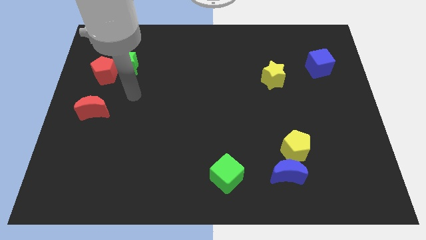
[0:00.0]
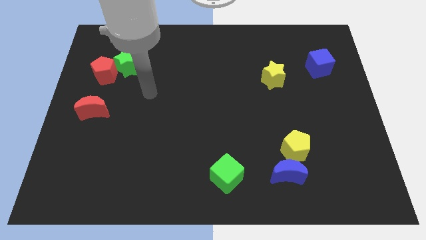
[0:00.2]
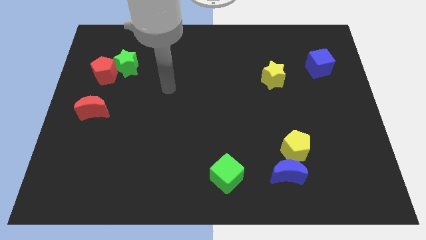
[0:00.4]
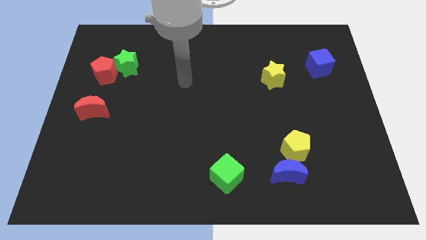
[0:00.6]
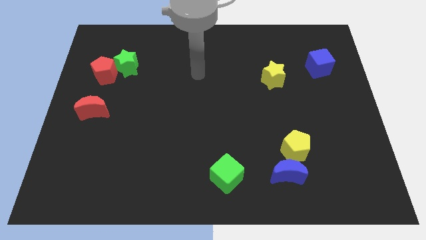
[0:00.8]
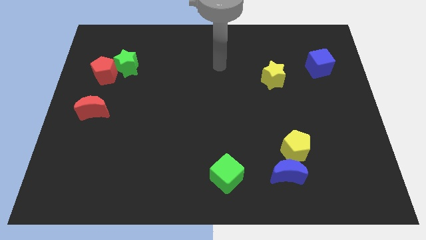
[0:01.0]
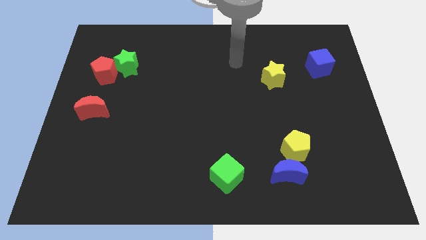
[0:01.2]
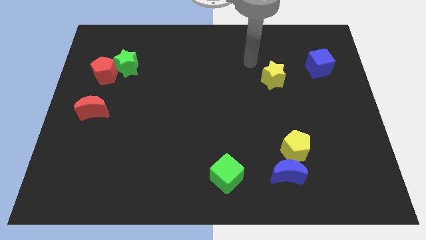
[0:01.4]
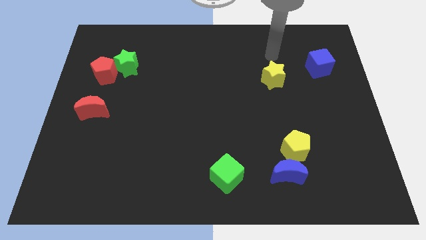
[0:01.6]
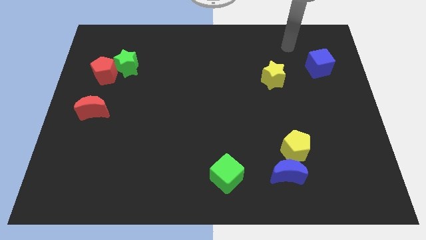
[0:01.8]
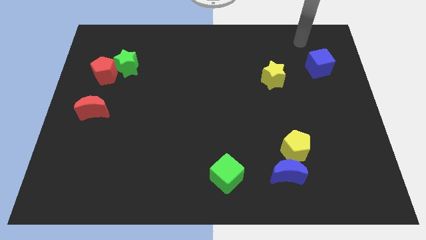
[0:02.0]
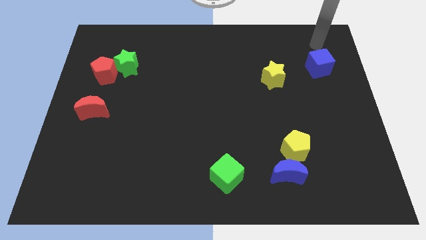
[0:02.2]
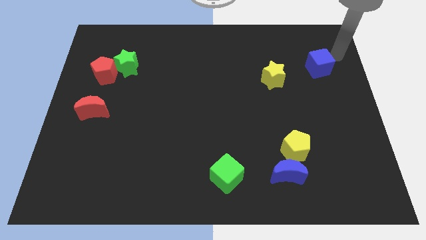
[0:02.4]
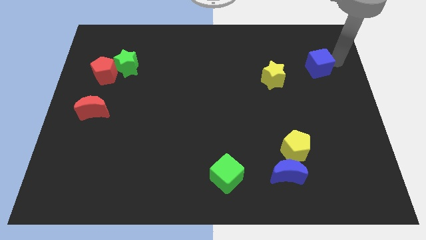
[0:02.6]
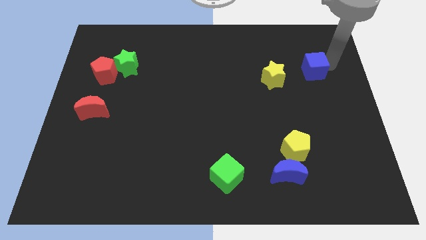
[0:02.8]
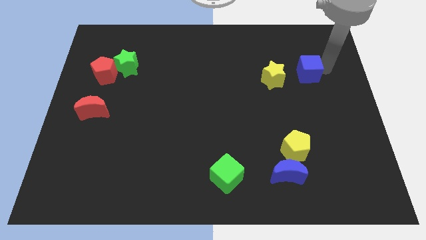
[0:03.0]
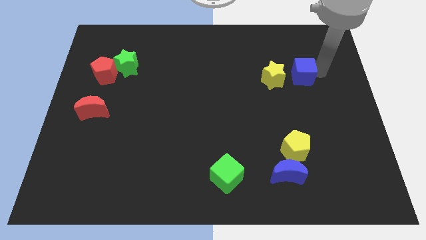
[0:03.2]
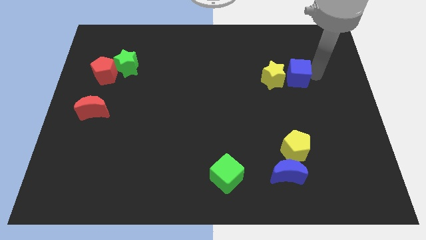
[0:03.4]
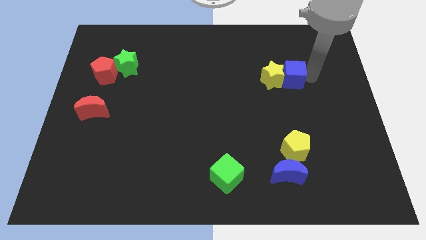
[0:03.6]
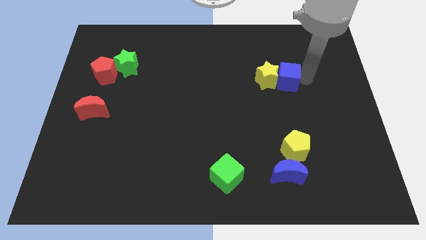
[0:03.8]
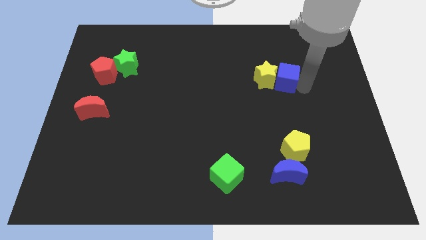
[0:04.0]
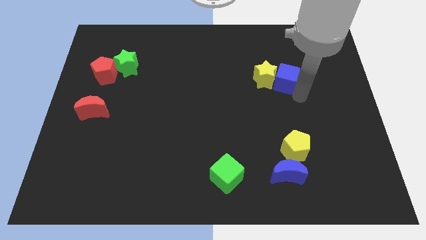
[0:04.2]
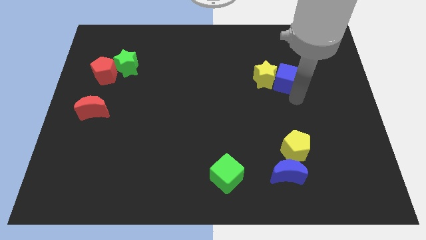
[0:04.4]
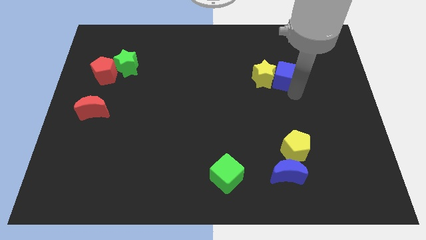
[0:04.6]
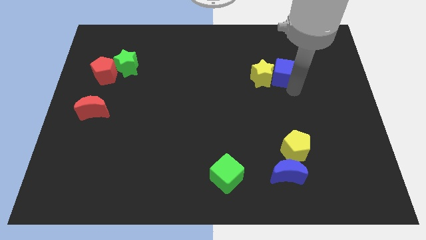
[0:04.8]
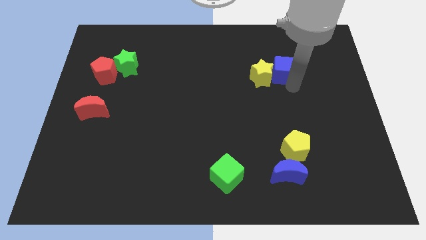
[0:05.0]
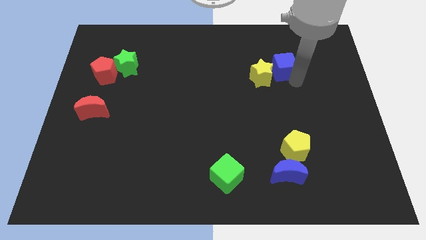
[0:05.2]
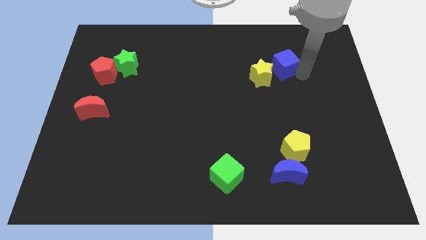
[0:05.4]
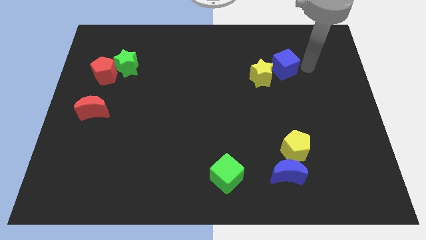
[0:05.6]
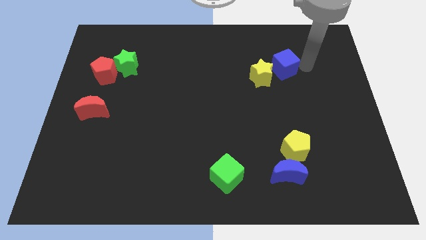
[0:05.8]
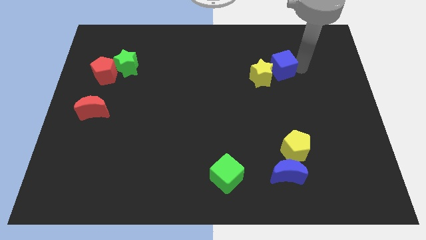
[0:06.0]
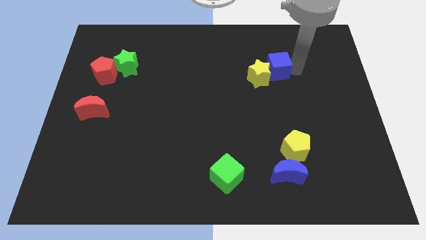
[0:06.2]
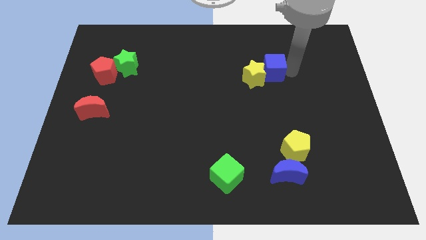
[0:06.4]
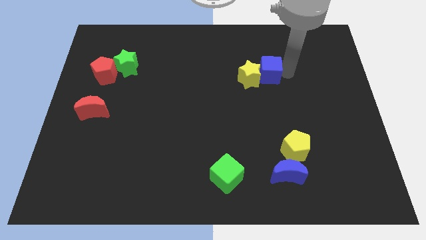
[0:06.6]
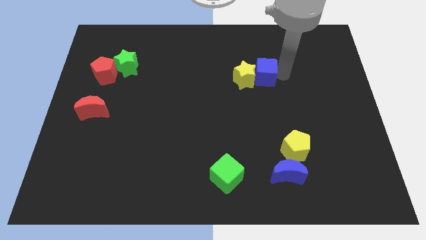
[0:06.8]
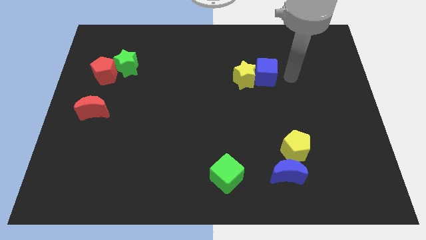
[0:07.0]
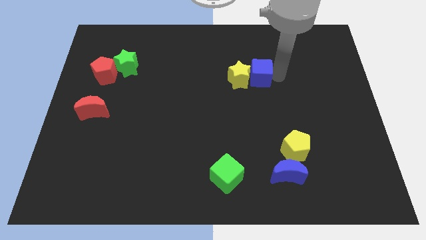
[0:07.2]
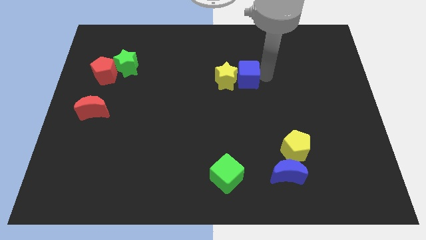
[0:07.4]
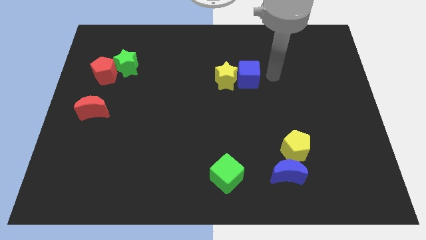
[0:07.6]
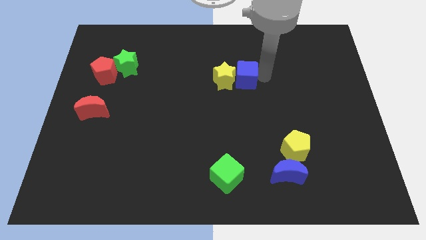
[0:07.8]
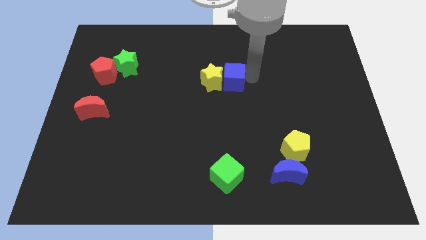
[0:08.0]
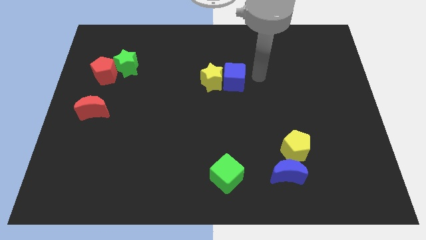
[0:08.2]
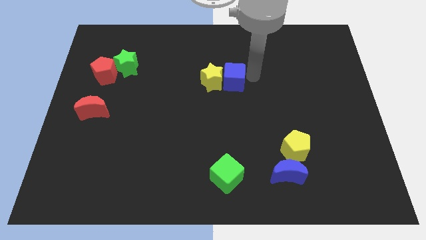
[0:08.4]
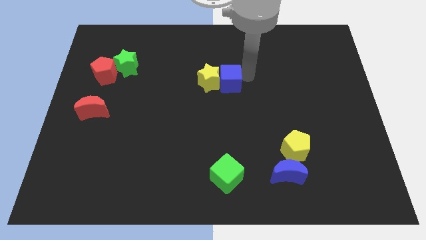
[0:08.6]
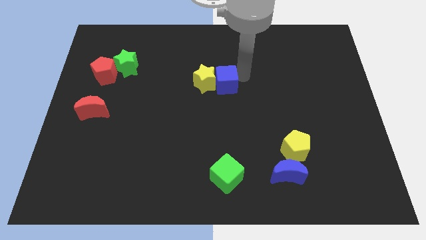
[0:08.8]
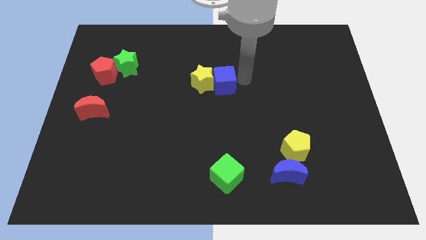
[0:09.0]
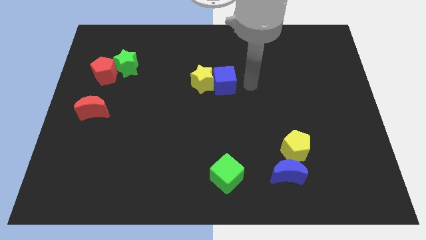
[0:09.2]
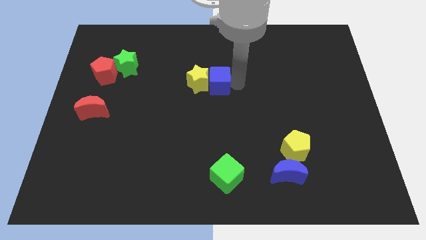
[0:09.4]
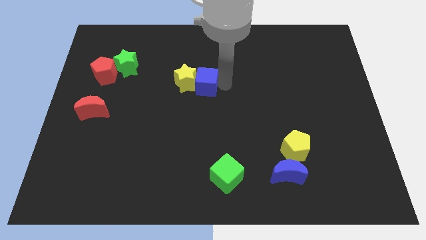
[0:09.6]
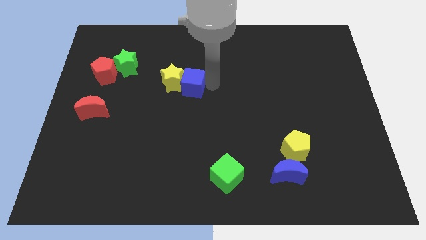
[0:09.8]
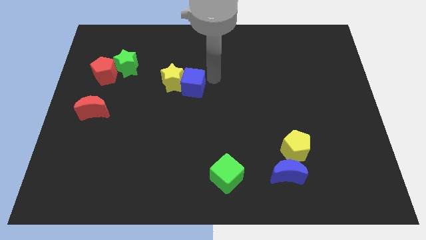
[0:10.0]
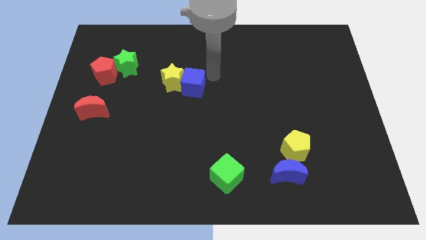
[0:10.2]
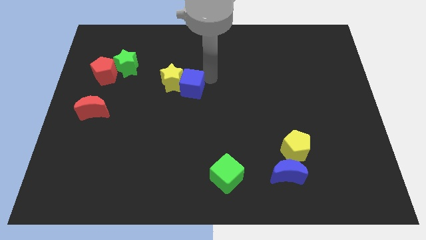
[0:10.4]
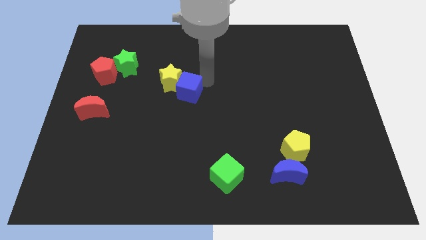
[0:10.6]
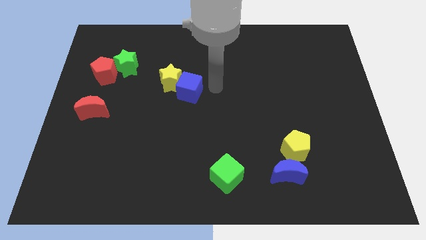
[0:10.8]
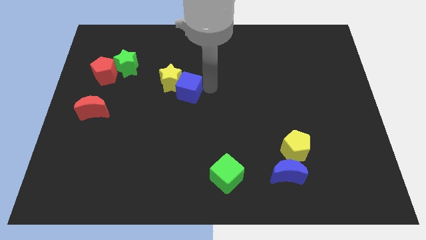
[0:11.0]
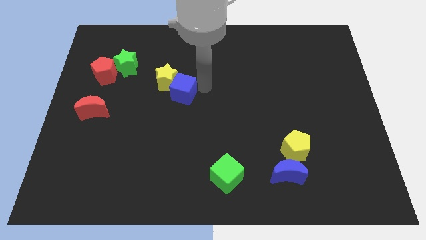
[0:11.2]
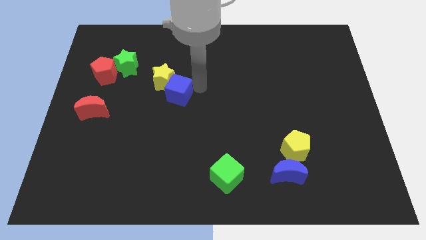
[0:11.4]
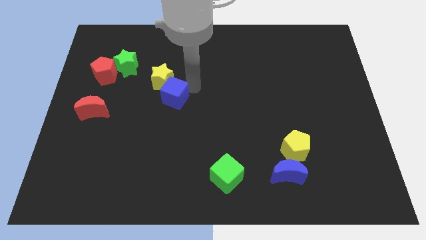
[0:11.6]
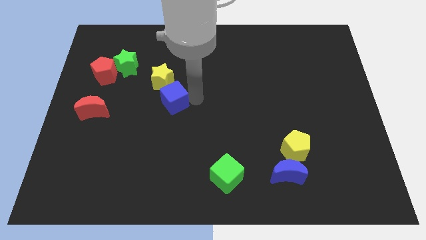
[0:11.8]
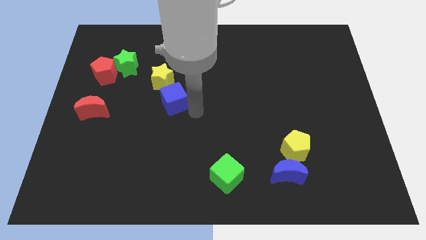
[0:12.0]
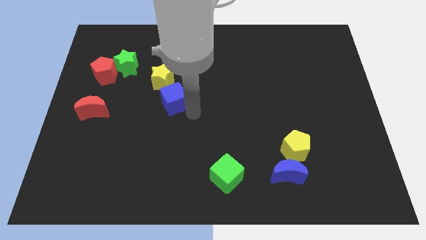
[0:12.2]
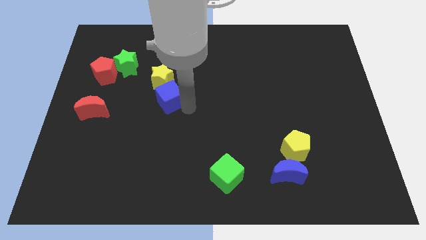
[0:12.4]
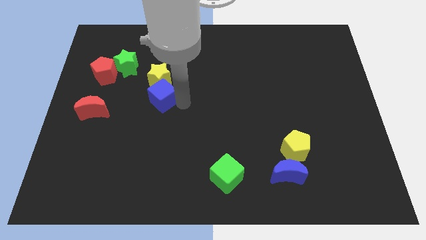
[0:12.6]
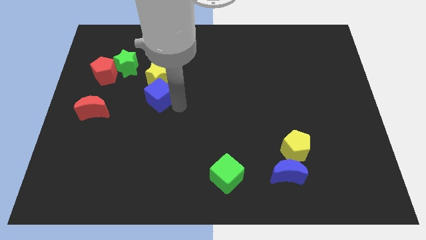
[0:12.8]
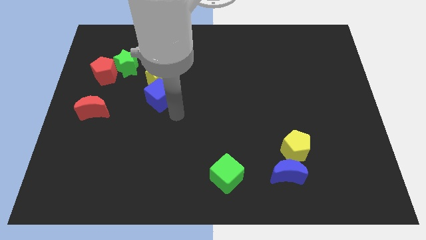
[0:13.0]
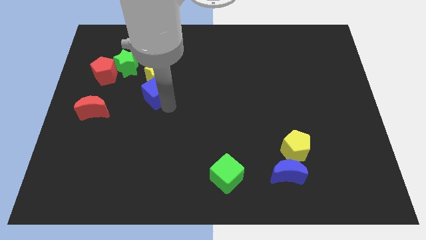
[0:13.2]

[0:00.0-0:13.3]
move the blue cube diagonally down and to the right of the green star

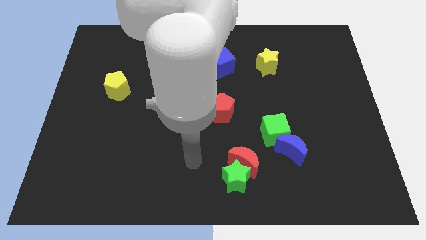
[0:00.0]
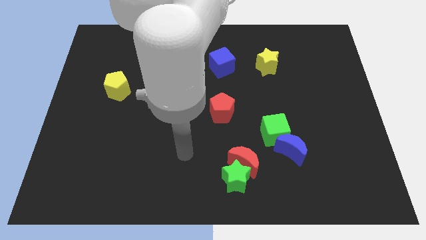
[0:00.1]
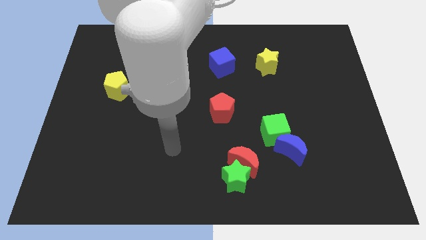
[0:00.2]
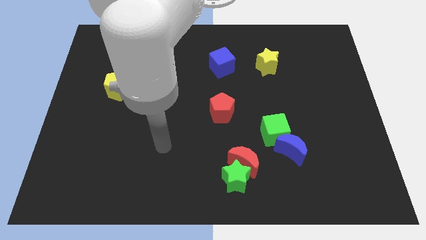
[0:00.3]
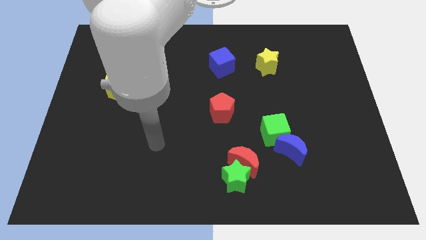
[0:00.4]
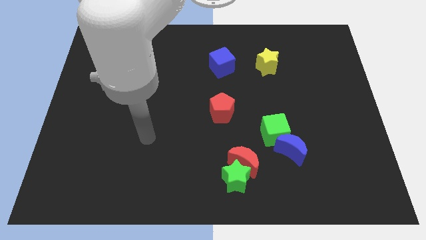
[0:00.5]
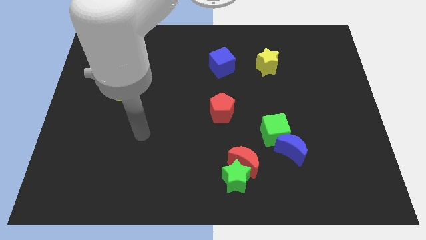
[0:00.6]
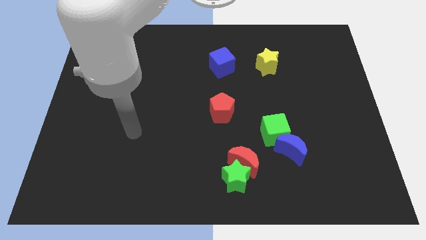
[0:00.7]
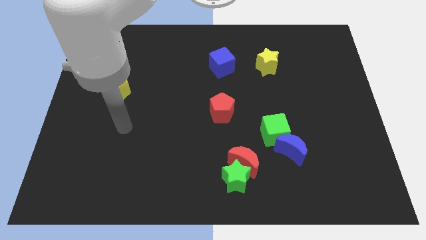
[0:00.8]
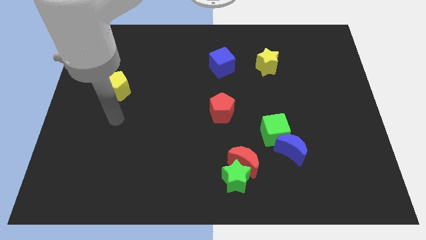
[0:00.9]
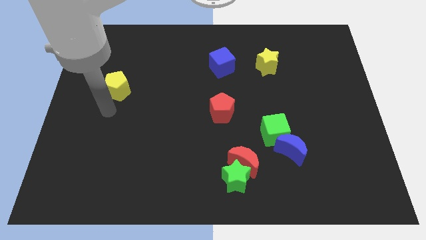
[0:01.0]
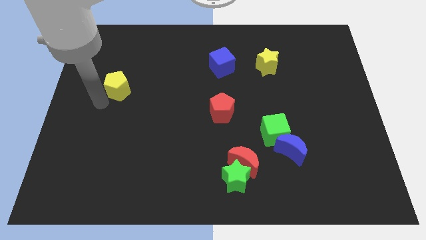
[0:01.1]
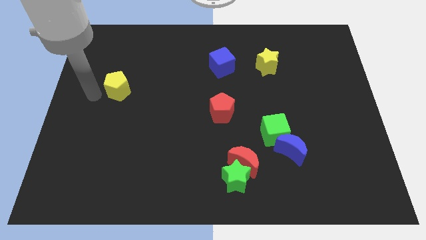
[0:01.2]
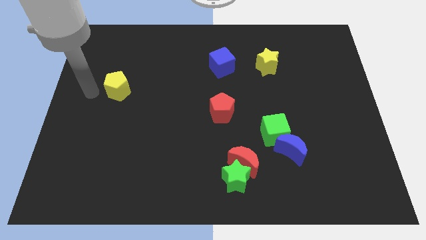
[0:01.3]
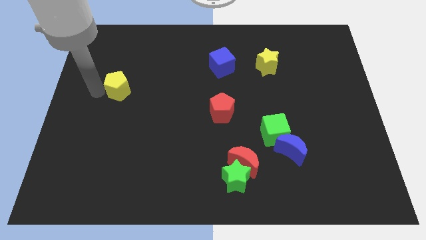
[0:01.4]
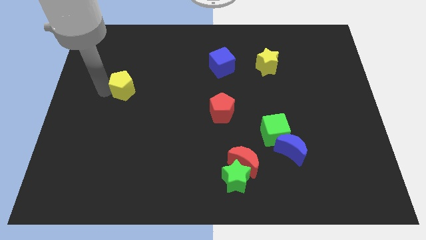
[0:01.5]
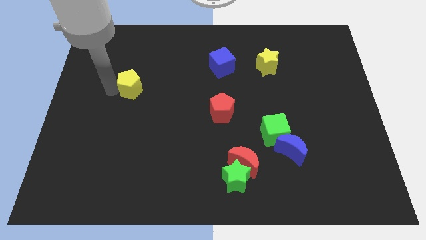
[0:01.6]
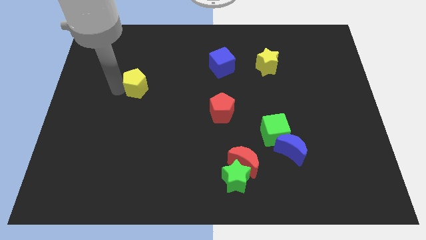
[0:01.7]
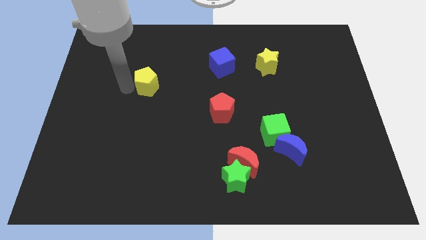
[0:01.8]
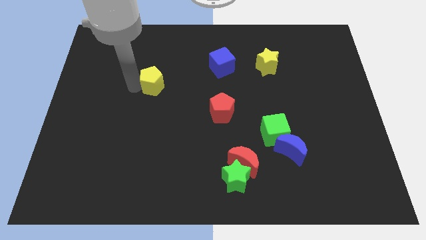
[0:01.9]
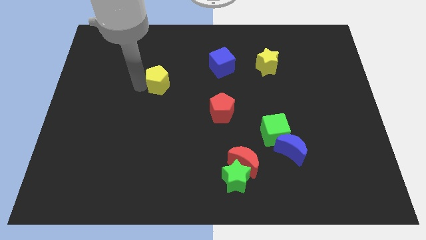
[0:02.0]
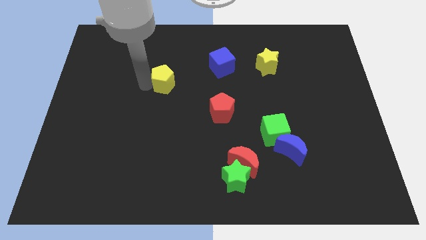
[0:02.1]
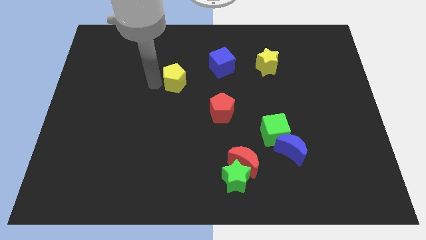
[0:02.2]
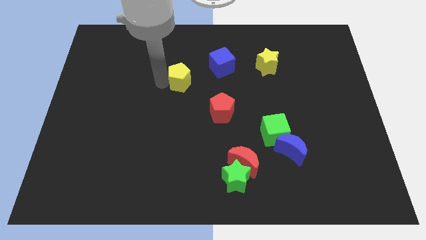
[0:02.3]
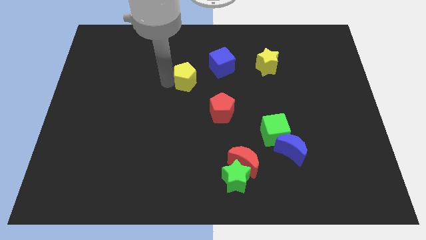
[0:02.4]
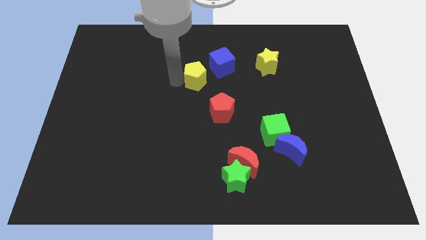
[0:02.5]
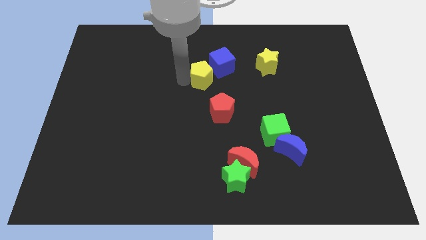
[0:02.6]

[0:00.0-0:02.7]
slide the yellow pentagon to the top side of the red pentagon
